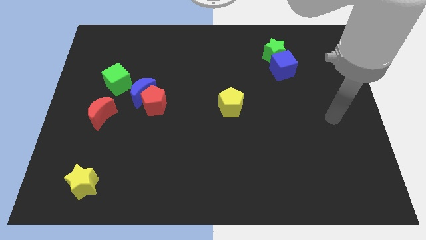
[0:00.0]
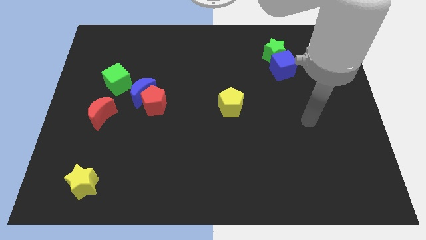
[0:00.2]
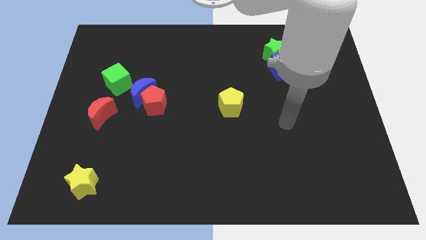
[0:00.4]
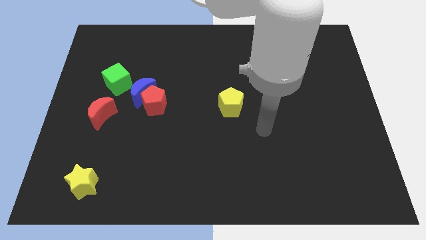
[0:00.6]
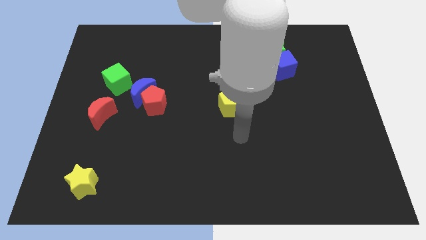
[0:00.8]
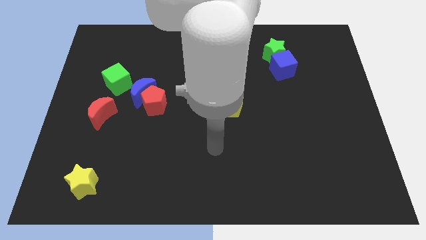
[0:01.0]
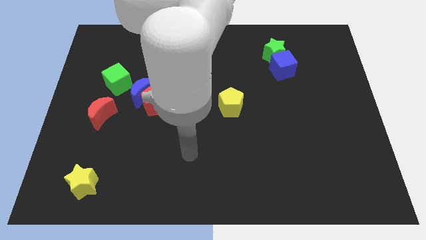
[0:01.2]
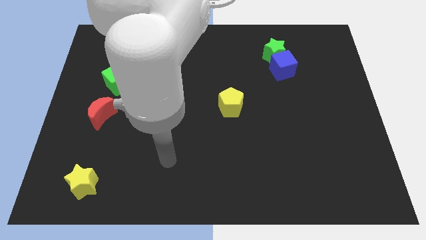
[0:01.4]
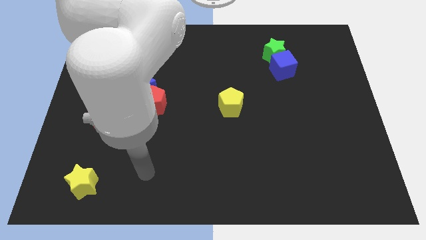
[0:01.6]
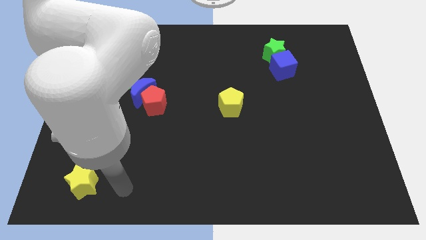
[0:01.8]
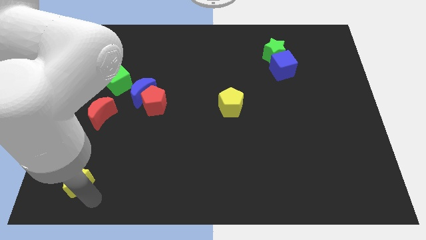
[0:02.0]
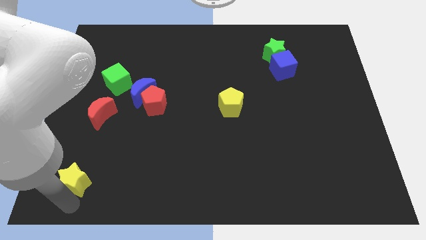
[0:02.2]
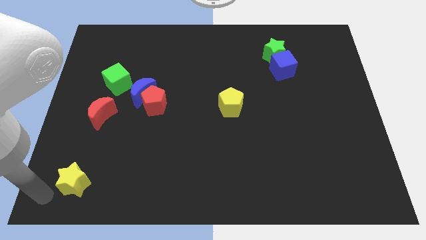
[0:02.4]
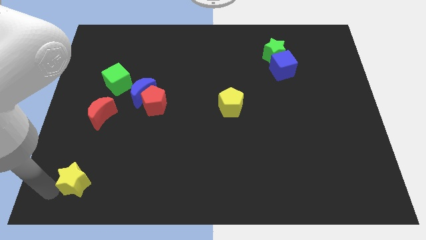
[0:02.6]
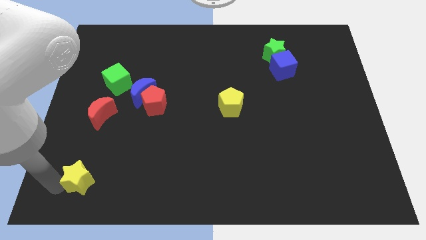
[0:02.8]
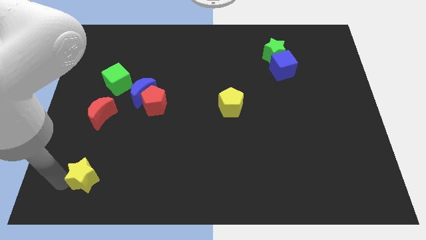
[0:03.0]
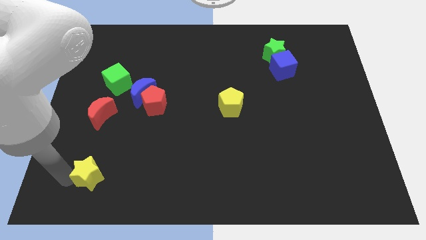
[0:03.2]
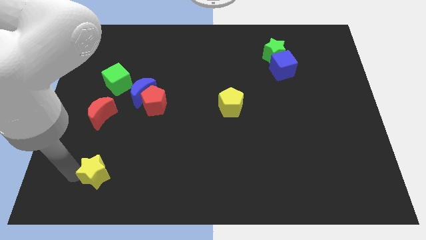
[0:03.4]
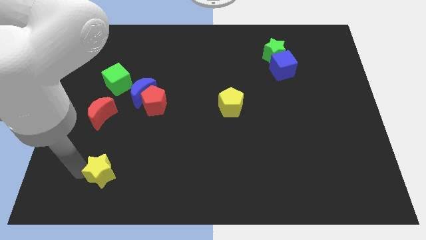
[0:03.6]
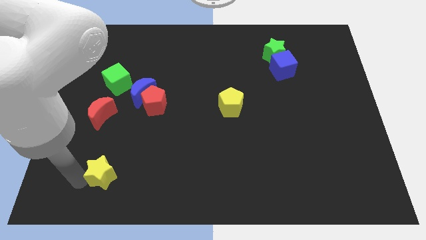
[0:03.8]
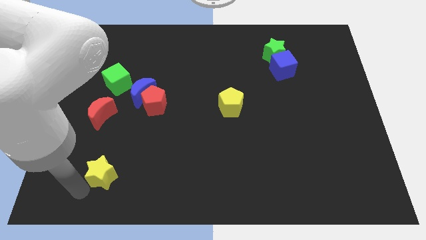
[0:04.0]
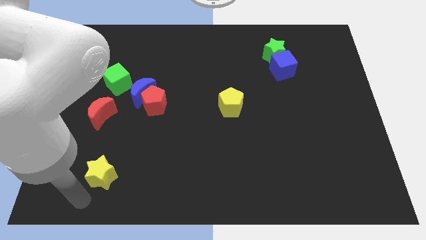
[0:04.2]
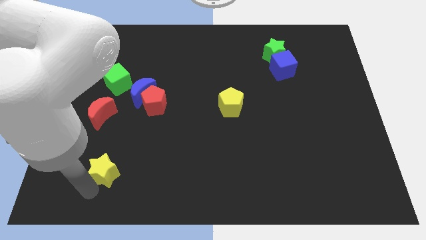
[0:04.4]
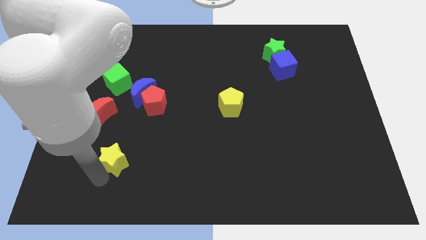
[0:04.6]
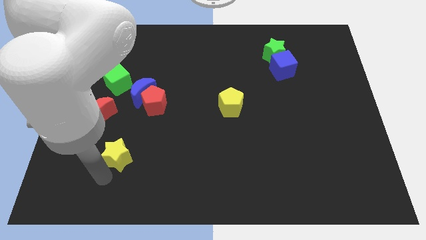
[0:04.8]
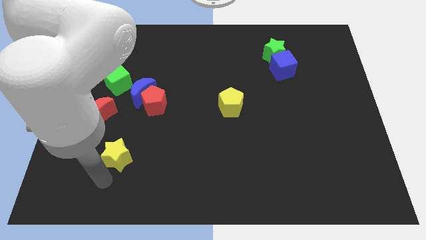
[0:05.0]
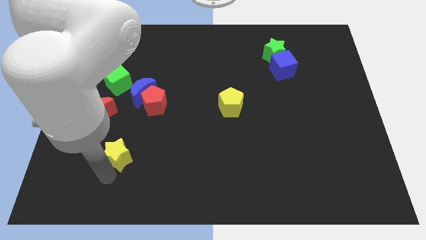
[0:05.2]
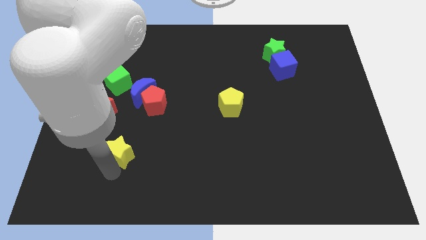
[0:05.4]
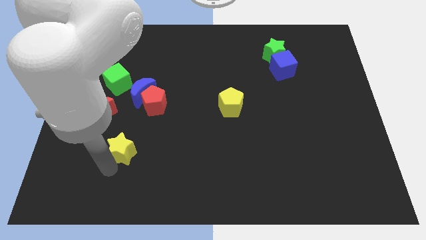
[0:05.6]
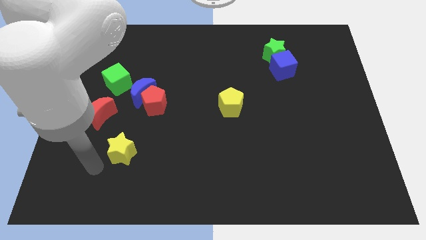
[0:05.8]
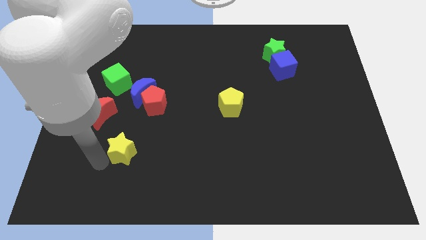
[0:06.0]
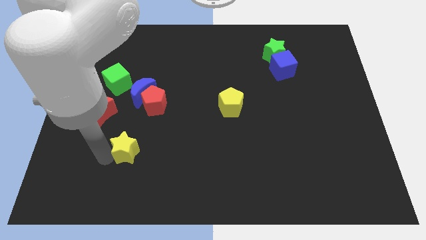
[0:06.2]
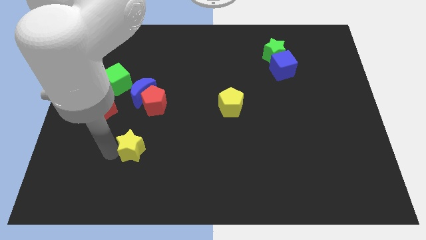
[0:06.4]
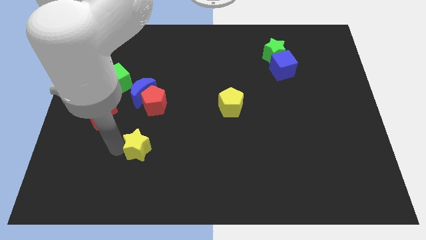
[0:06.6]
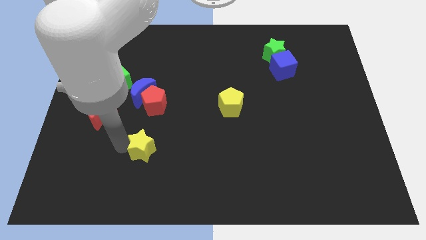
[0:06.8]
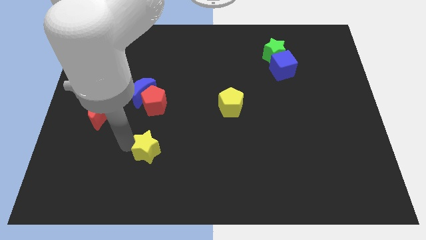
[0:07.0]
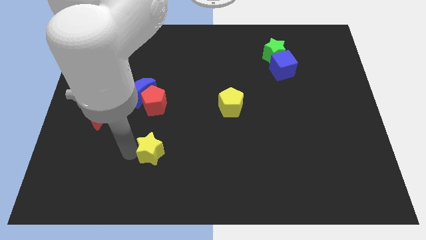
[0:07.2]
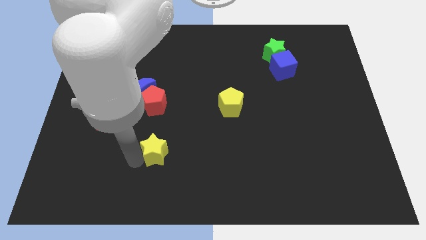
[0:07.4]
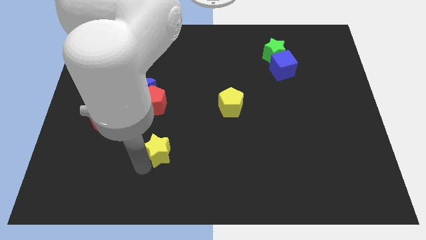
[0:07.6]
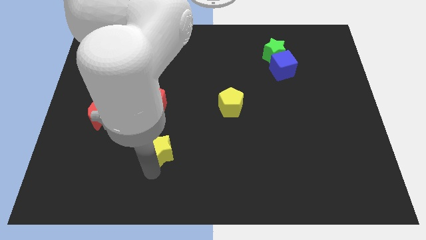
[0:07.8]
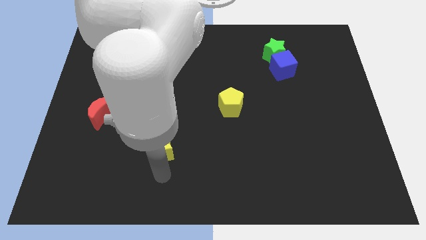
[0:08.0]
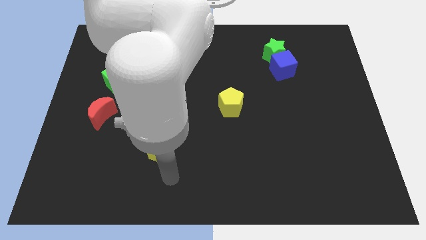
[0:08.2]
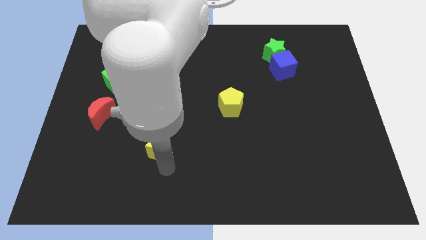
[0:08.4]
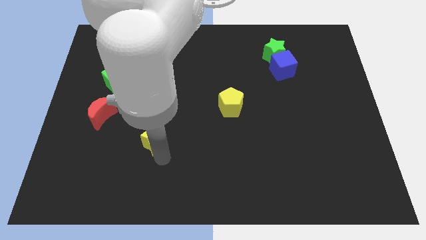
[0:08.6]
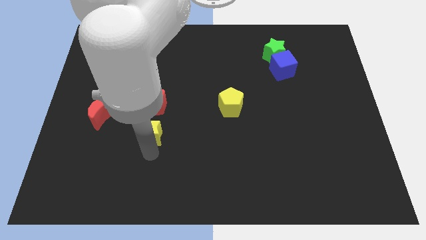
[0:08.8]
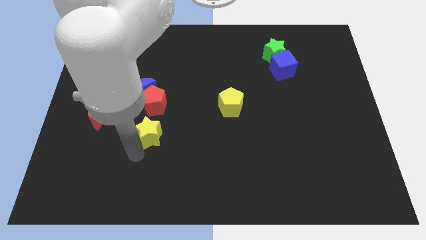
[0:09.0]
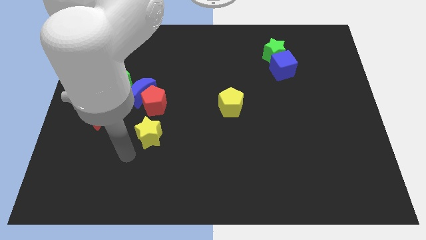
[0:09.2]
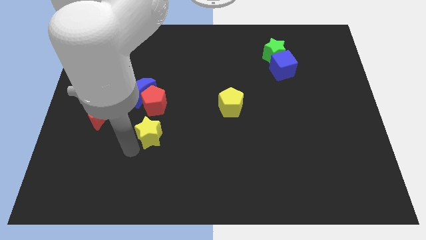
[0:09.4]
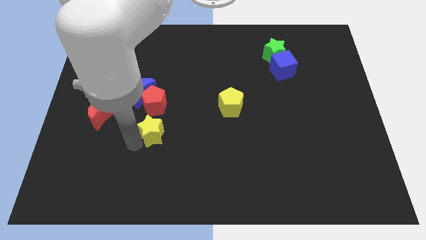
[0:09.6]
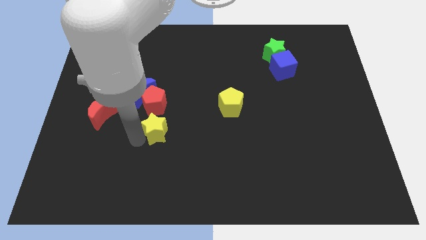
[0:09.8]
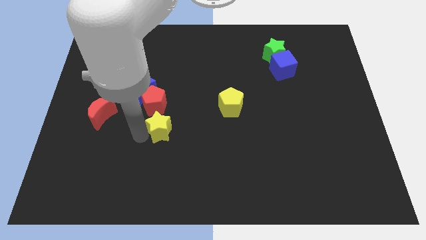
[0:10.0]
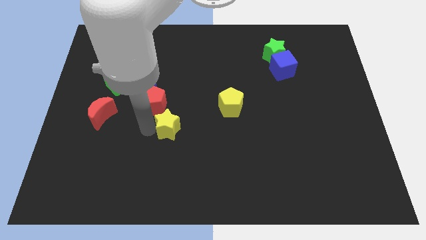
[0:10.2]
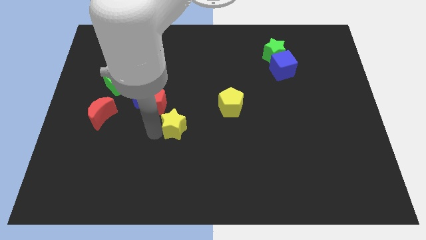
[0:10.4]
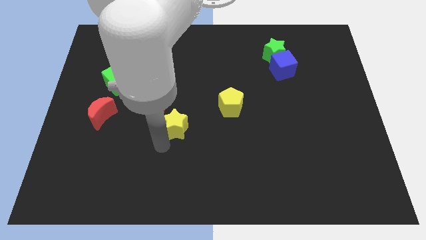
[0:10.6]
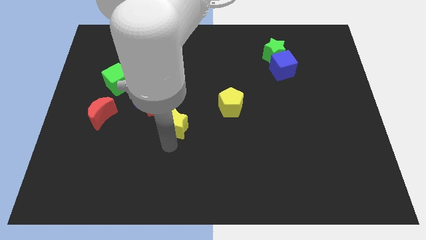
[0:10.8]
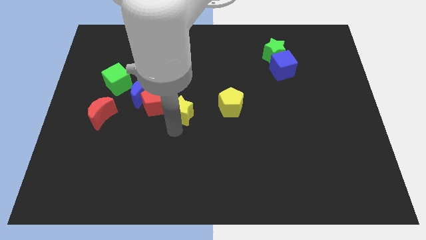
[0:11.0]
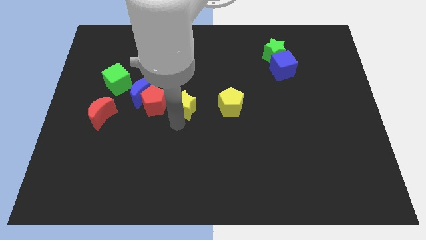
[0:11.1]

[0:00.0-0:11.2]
slide the yellow star right of the blue moon

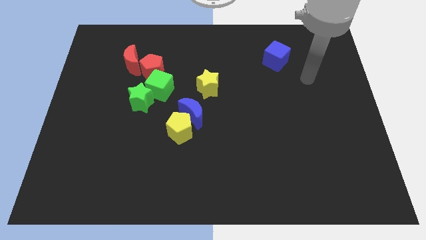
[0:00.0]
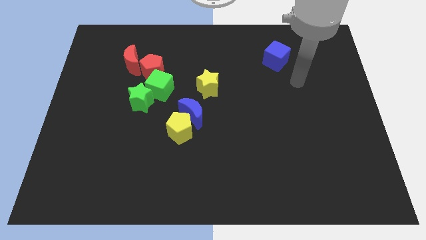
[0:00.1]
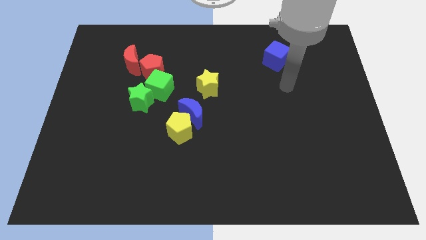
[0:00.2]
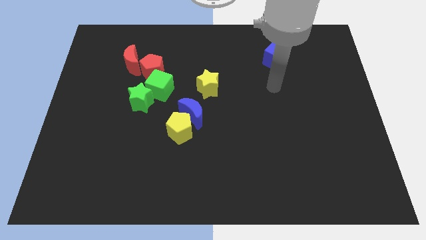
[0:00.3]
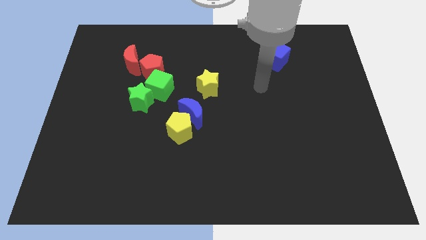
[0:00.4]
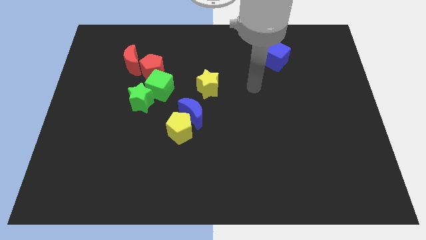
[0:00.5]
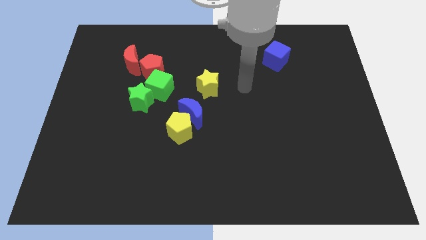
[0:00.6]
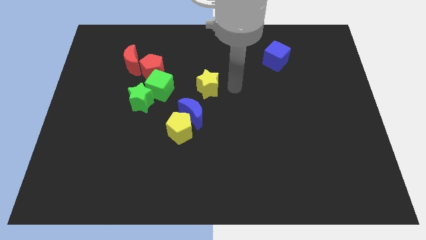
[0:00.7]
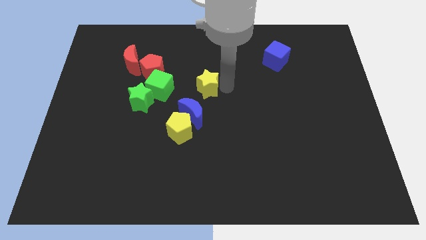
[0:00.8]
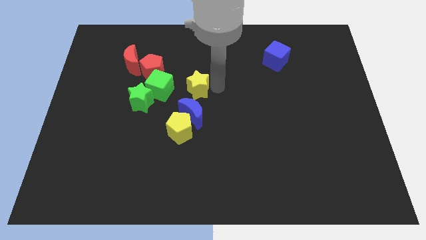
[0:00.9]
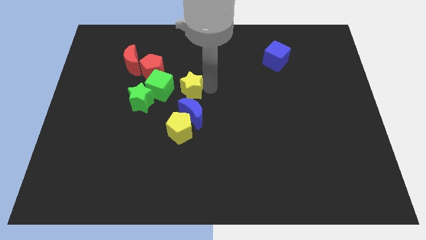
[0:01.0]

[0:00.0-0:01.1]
put the yellow star to the bottom right side of the red pentagon

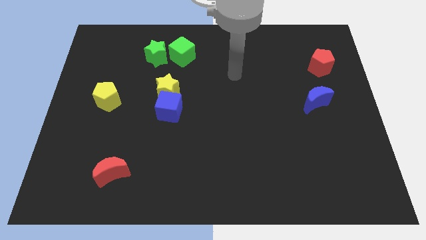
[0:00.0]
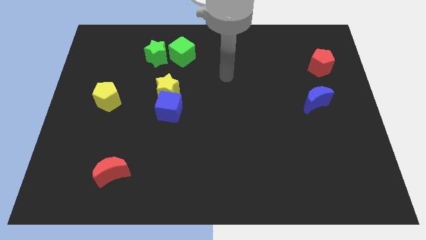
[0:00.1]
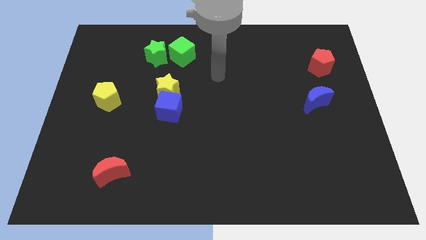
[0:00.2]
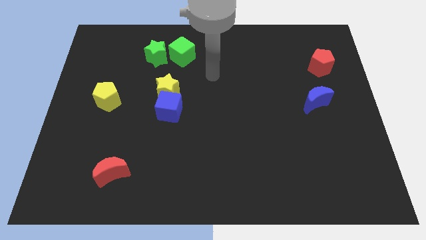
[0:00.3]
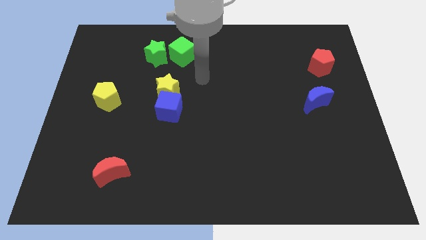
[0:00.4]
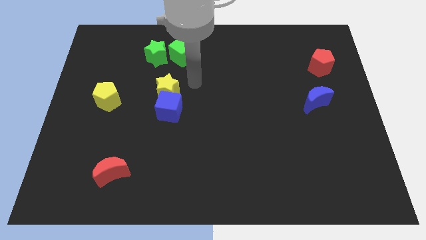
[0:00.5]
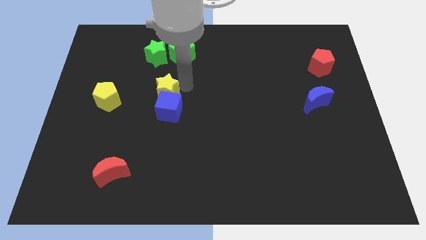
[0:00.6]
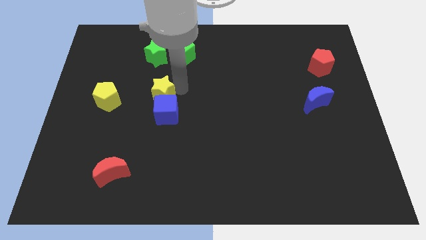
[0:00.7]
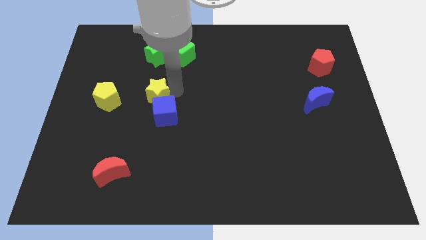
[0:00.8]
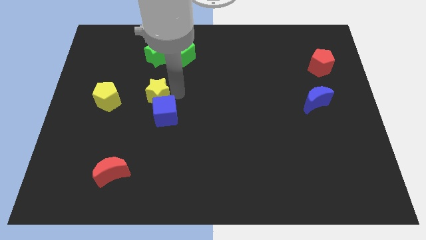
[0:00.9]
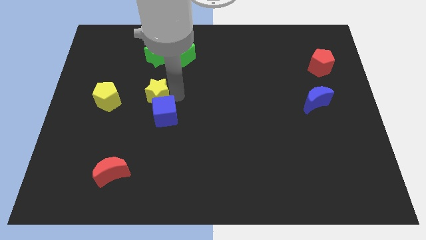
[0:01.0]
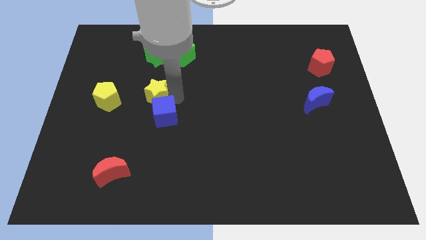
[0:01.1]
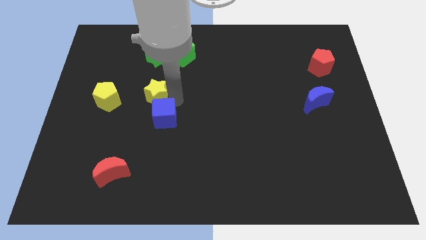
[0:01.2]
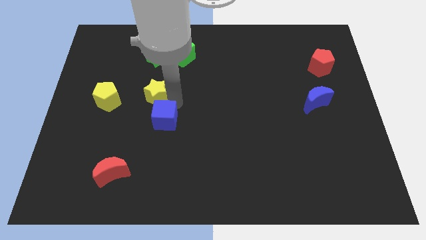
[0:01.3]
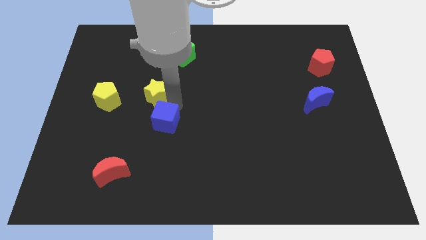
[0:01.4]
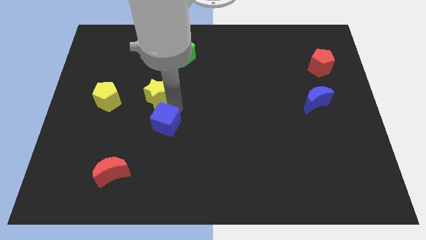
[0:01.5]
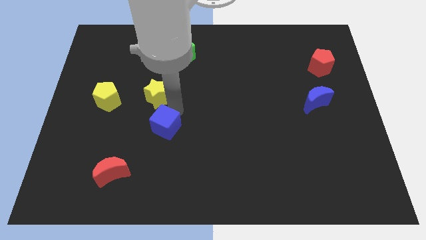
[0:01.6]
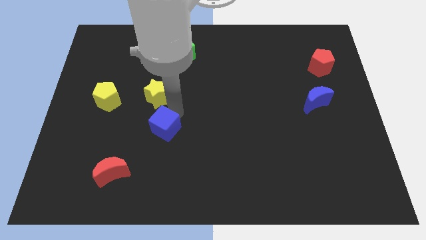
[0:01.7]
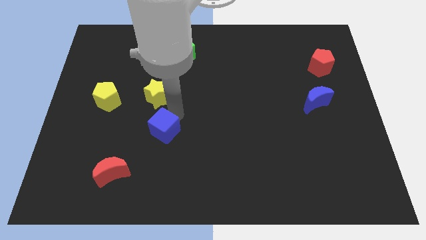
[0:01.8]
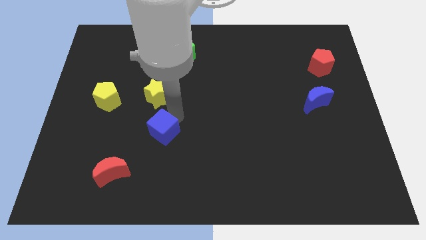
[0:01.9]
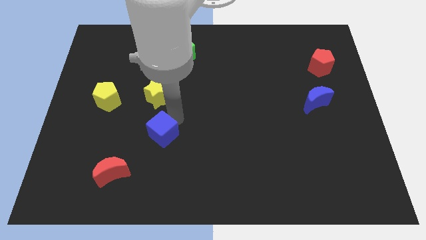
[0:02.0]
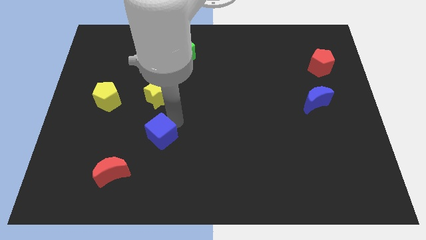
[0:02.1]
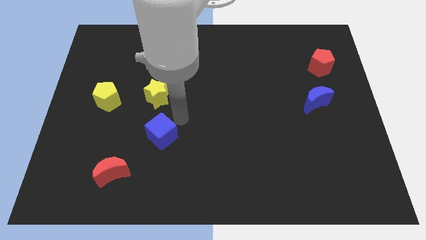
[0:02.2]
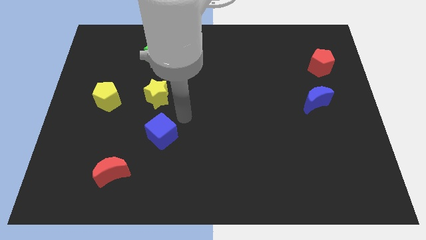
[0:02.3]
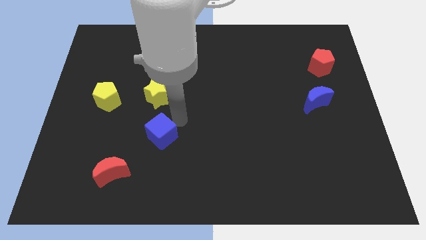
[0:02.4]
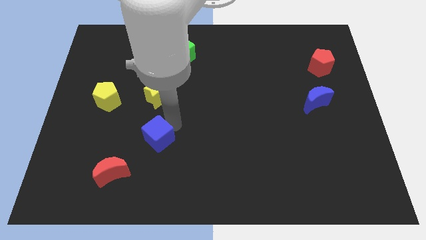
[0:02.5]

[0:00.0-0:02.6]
push the blue cube to the top right of the red moon
